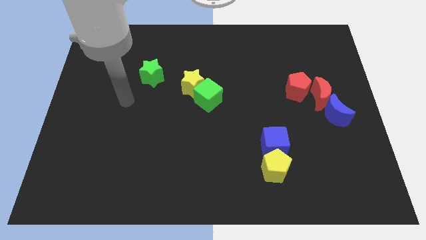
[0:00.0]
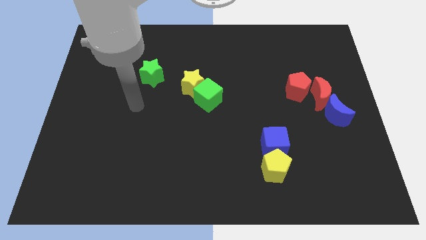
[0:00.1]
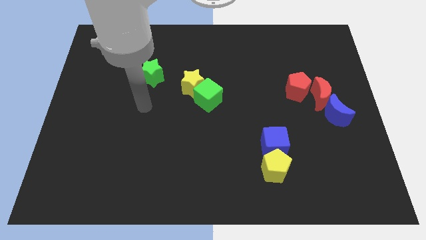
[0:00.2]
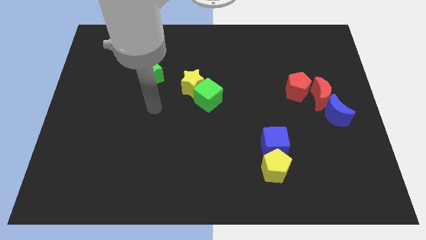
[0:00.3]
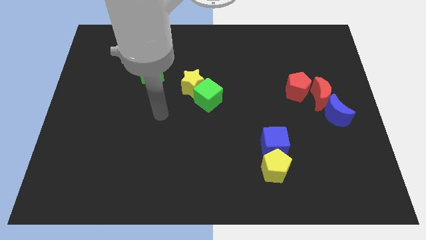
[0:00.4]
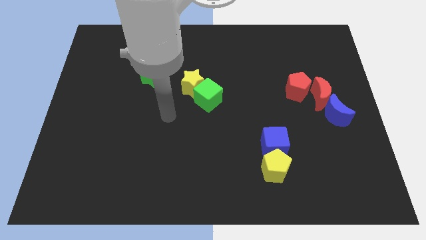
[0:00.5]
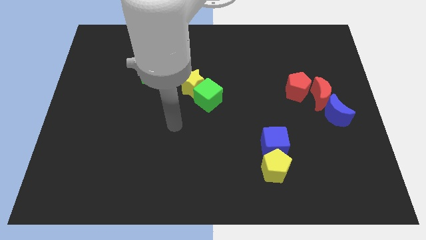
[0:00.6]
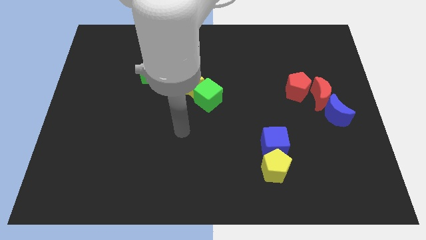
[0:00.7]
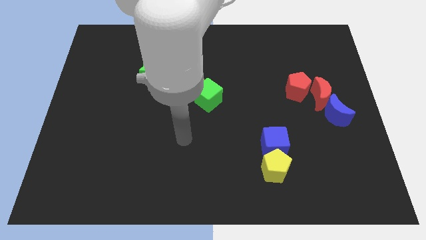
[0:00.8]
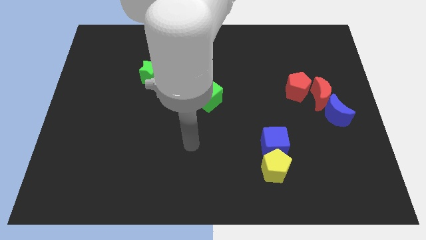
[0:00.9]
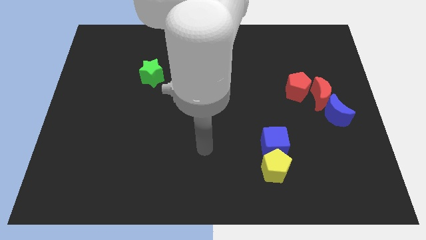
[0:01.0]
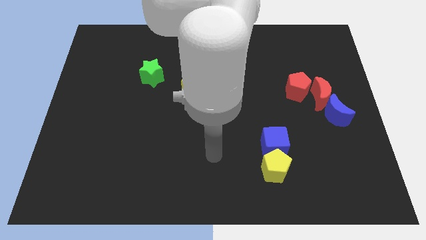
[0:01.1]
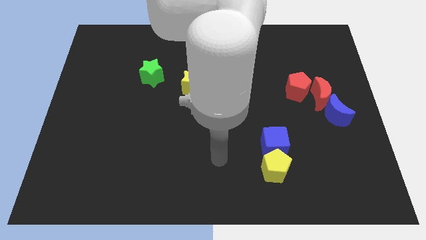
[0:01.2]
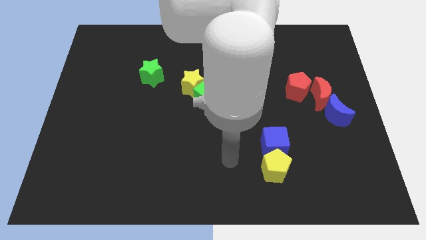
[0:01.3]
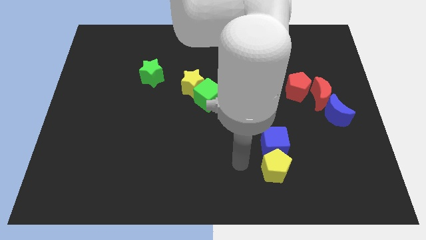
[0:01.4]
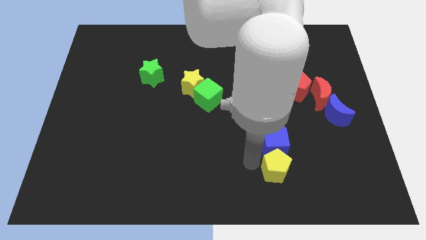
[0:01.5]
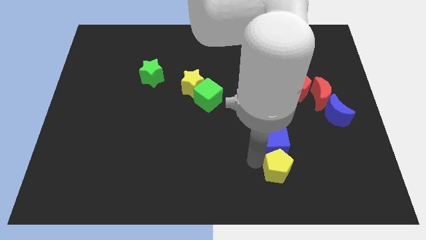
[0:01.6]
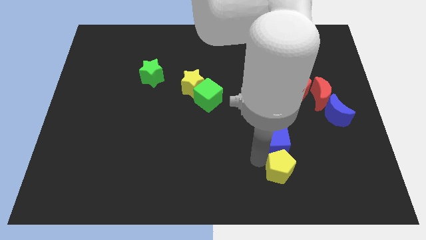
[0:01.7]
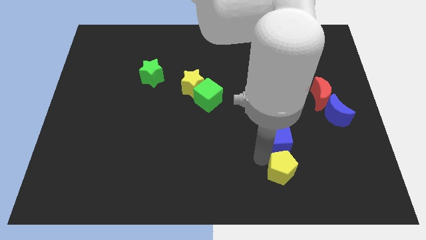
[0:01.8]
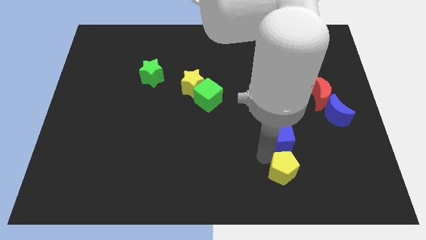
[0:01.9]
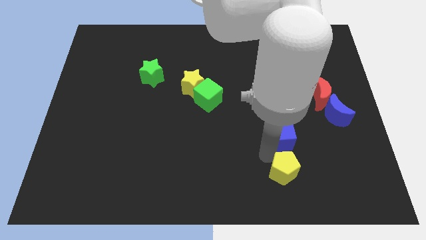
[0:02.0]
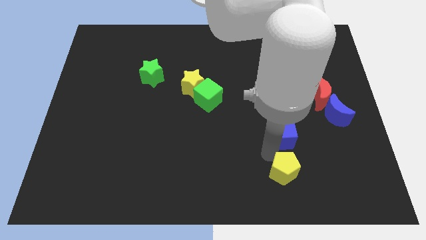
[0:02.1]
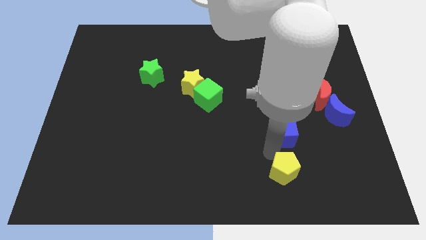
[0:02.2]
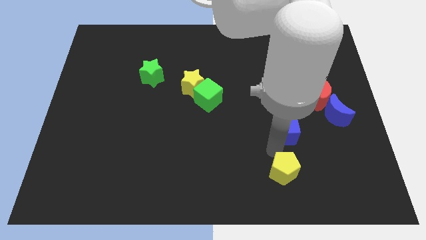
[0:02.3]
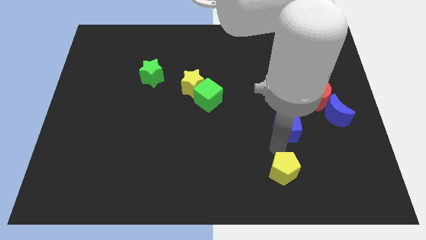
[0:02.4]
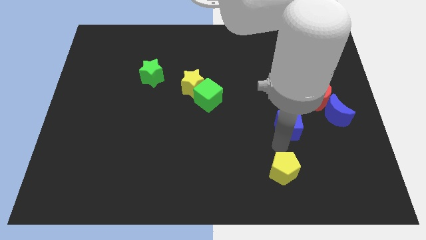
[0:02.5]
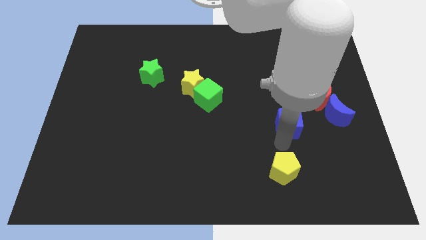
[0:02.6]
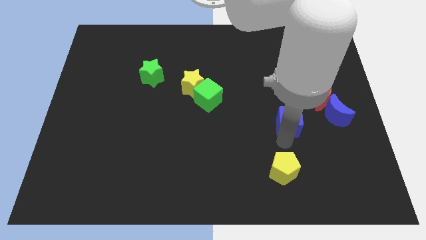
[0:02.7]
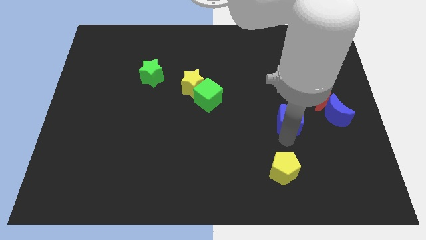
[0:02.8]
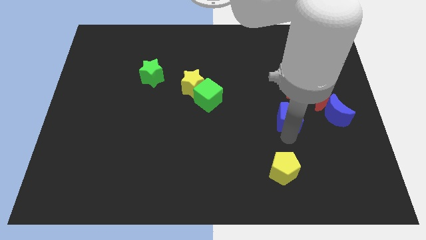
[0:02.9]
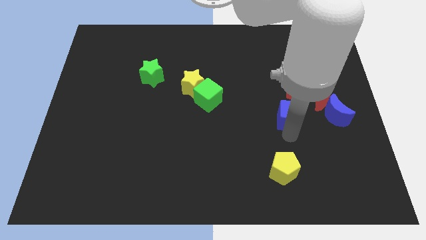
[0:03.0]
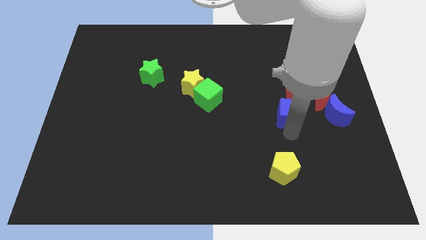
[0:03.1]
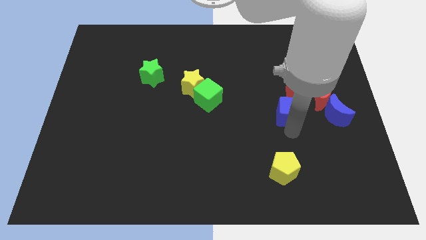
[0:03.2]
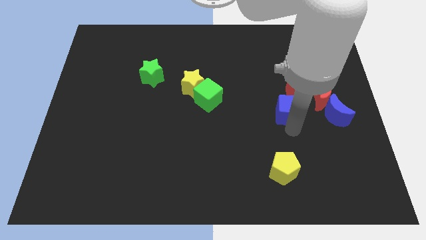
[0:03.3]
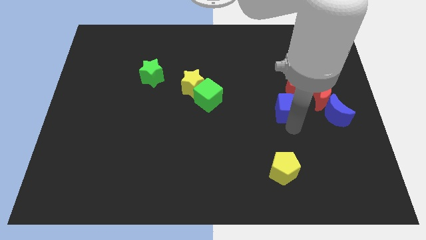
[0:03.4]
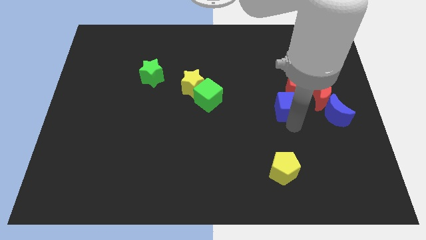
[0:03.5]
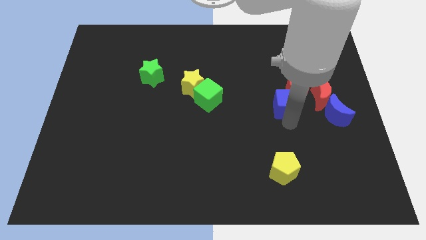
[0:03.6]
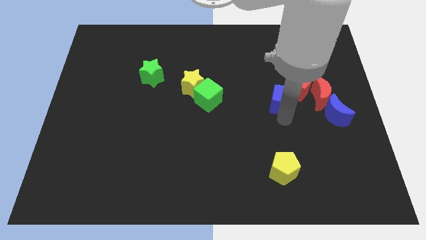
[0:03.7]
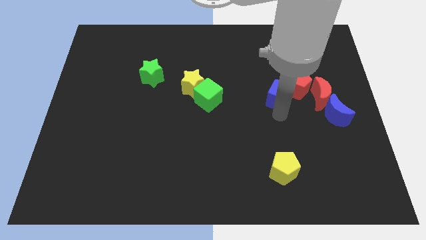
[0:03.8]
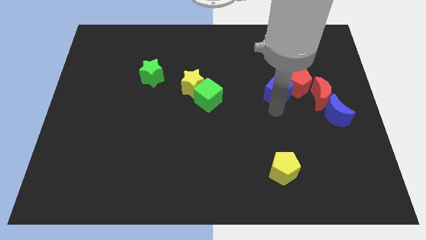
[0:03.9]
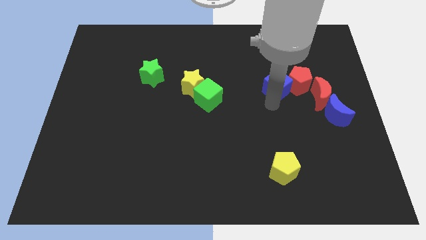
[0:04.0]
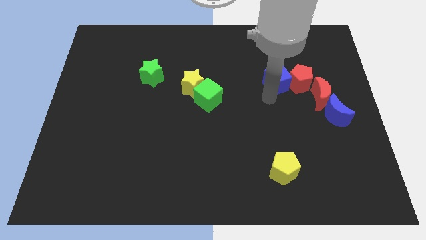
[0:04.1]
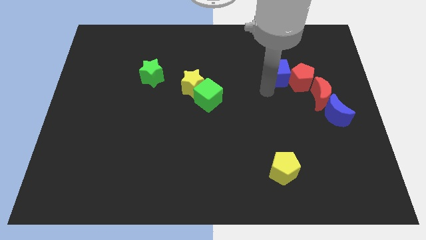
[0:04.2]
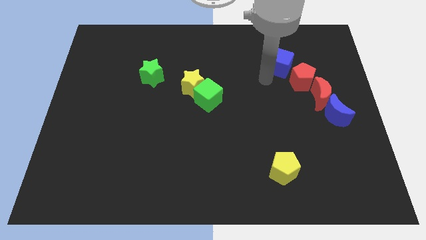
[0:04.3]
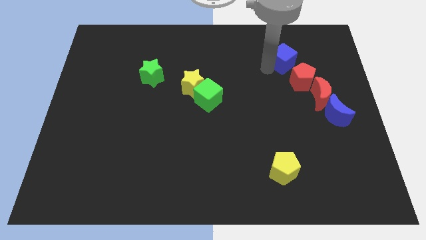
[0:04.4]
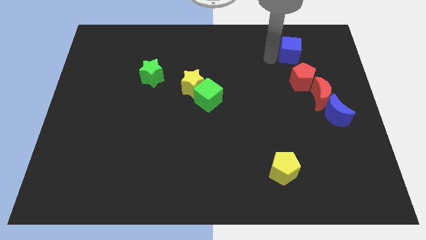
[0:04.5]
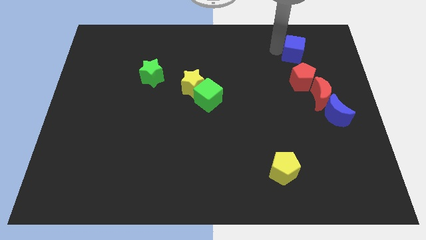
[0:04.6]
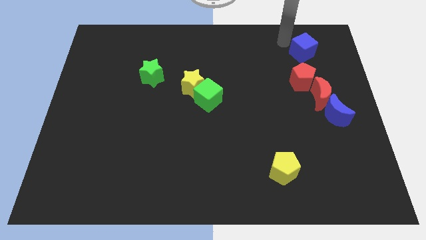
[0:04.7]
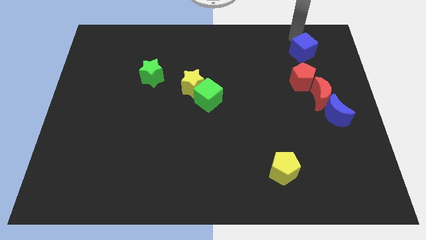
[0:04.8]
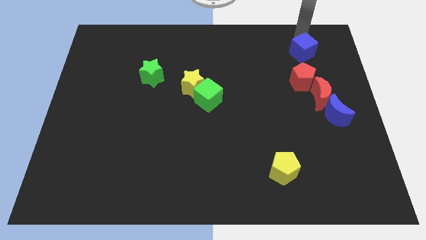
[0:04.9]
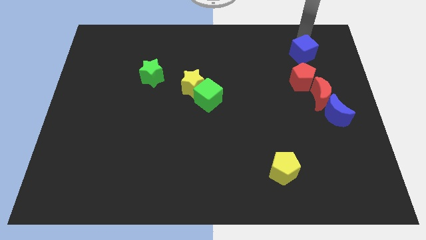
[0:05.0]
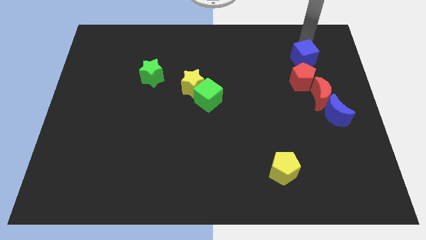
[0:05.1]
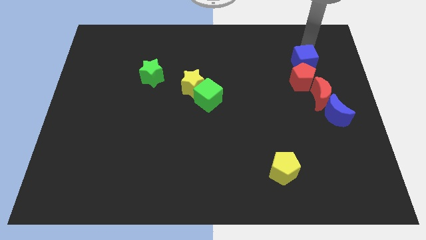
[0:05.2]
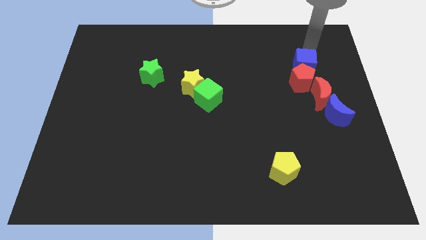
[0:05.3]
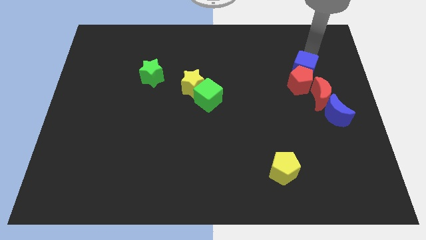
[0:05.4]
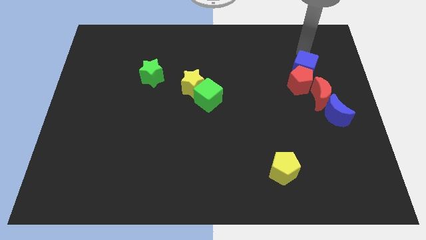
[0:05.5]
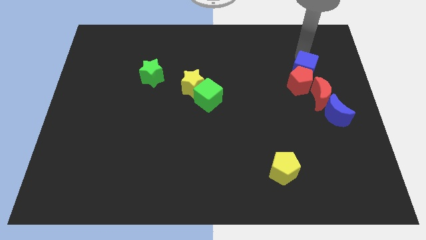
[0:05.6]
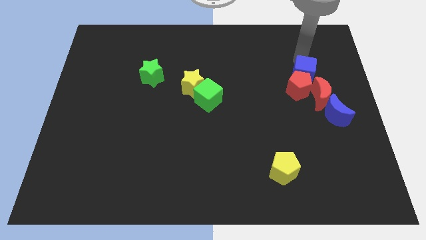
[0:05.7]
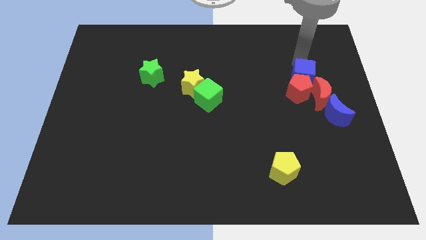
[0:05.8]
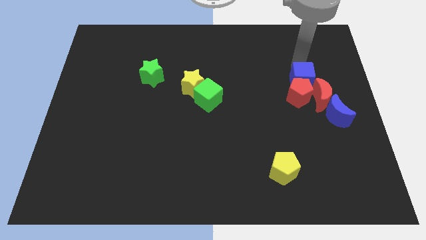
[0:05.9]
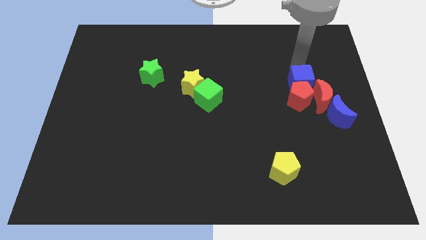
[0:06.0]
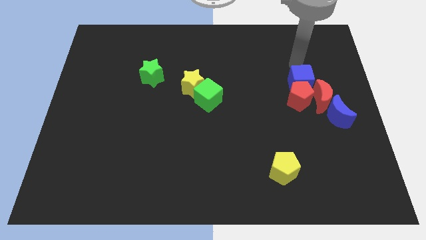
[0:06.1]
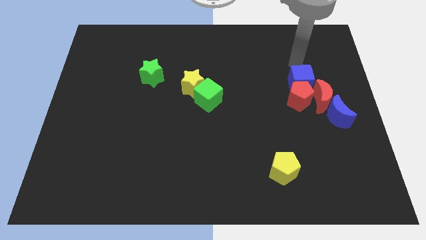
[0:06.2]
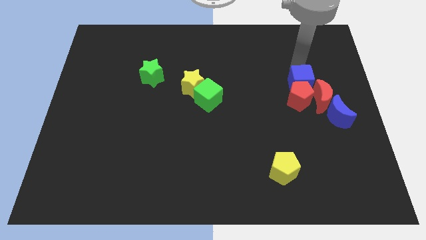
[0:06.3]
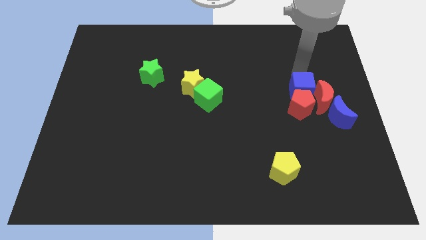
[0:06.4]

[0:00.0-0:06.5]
slide the blue cube towards the red moon

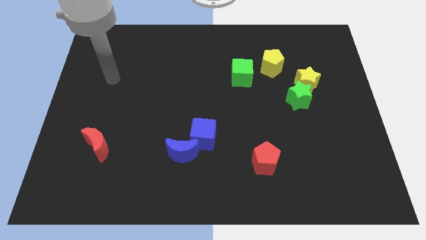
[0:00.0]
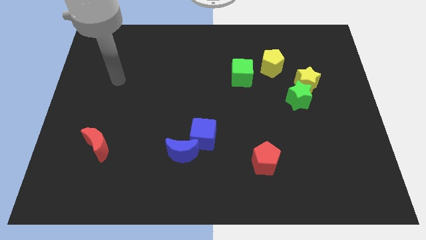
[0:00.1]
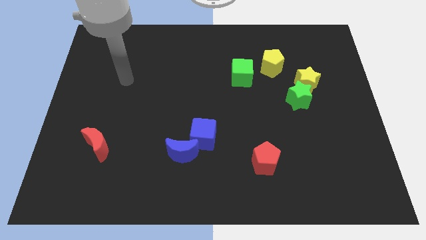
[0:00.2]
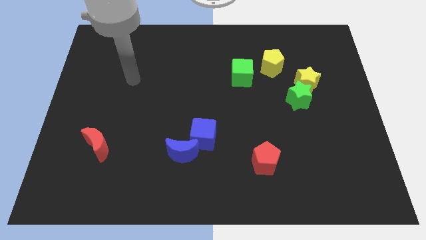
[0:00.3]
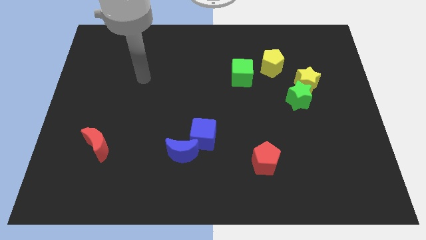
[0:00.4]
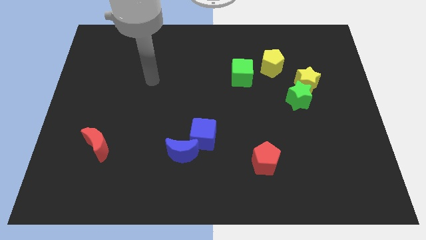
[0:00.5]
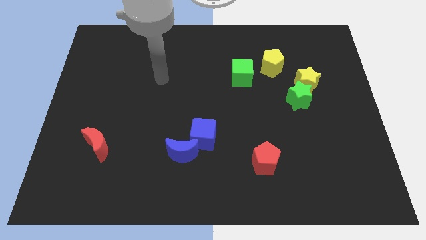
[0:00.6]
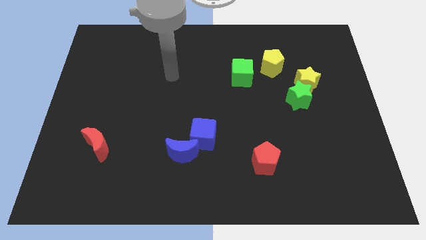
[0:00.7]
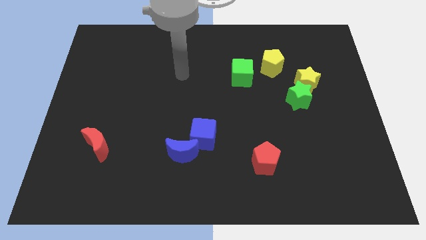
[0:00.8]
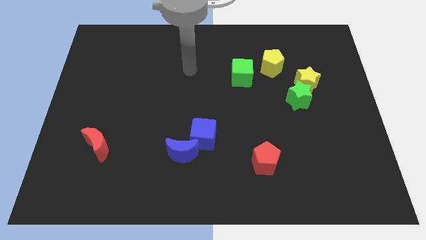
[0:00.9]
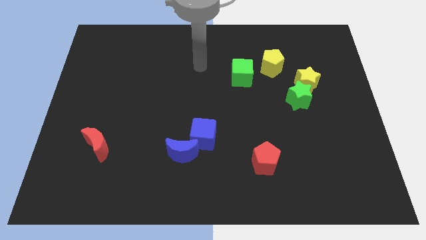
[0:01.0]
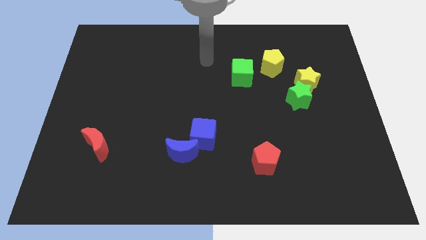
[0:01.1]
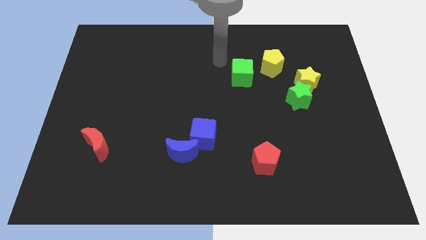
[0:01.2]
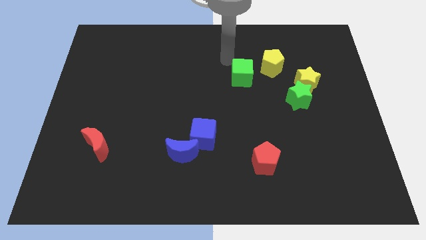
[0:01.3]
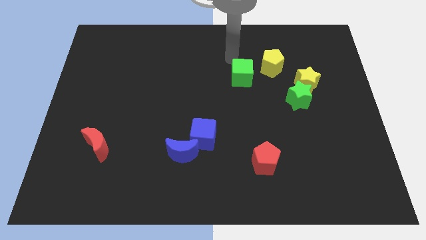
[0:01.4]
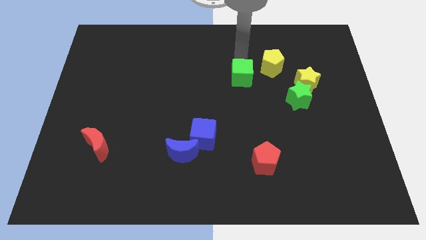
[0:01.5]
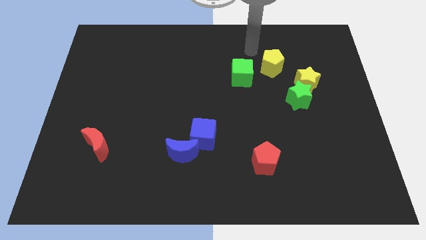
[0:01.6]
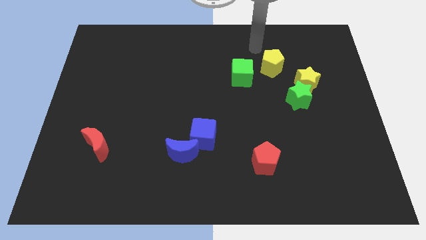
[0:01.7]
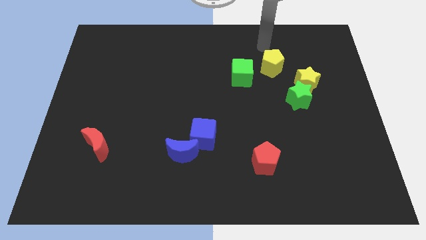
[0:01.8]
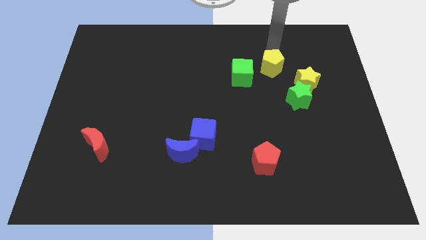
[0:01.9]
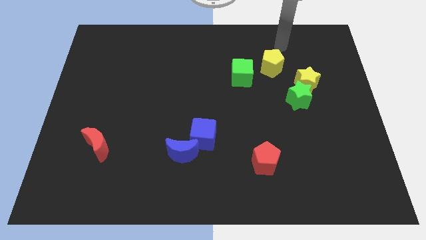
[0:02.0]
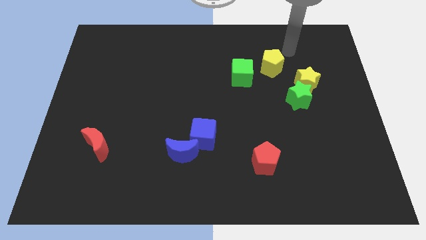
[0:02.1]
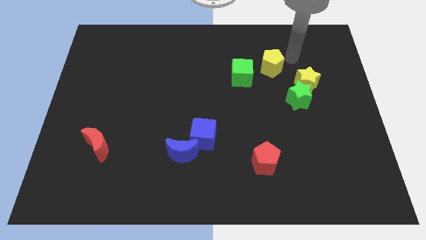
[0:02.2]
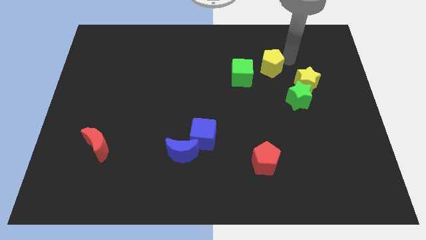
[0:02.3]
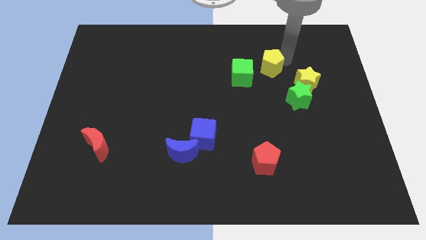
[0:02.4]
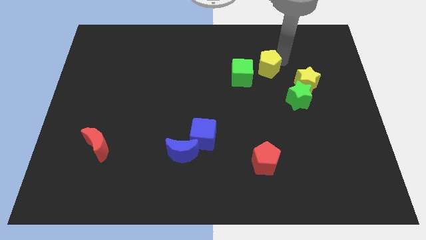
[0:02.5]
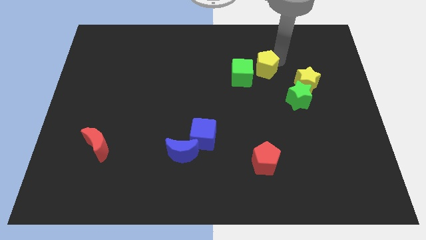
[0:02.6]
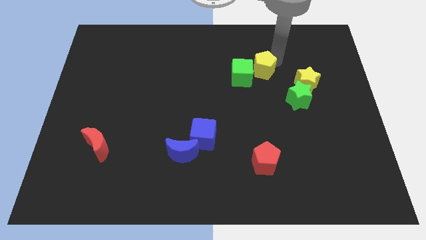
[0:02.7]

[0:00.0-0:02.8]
slide the yellow pentagon to the green cube
